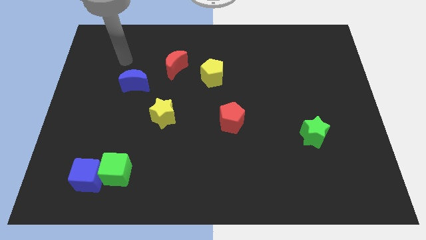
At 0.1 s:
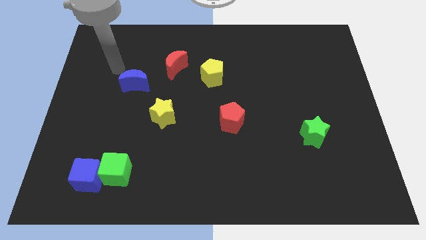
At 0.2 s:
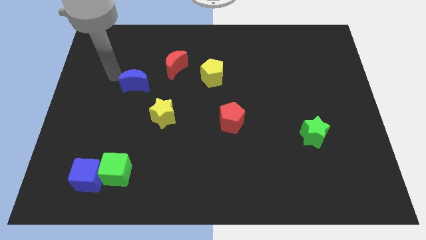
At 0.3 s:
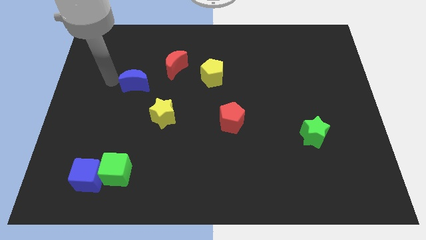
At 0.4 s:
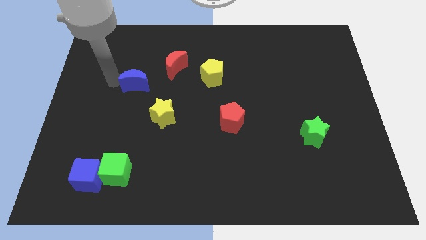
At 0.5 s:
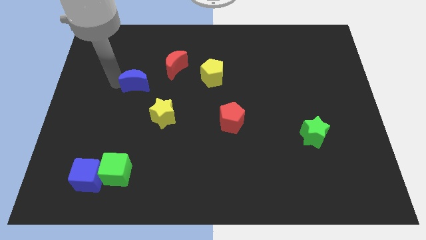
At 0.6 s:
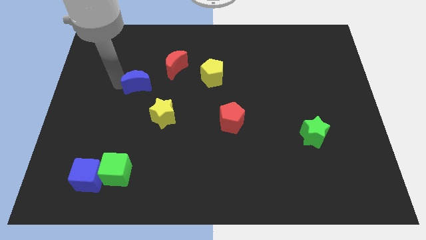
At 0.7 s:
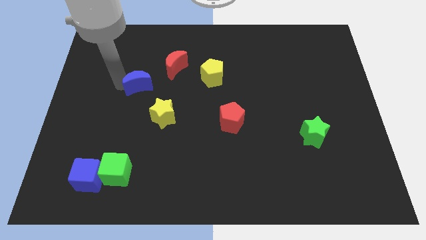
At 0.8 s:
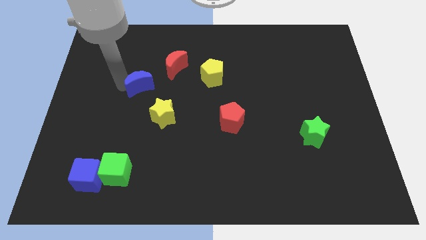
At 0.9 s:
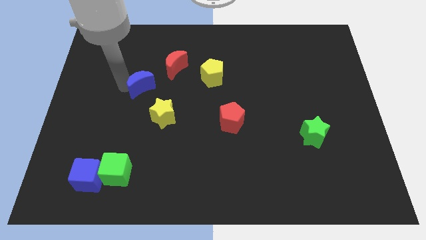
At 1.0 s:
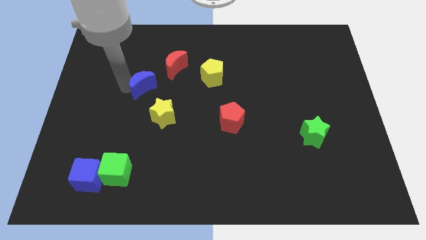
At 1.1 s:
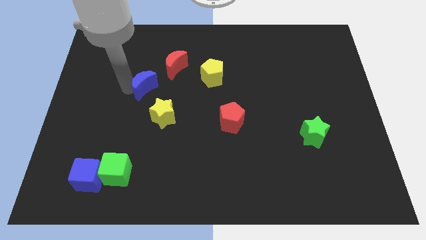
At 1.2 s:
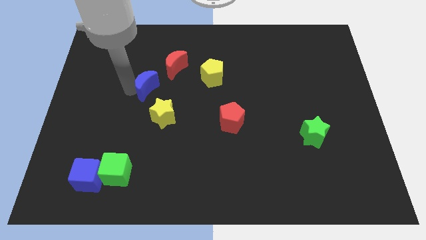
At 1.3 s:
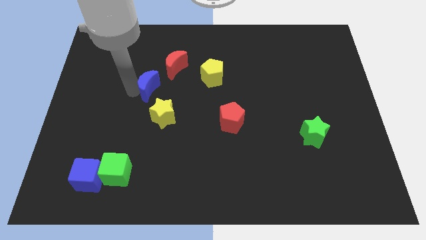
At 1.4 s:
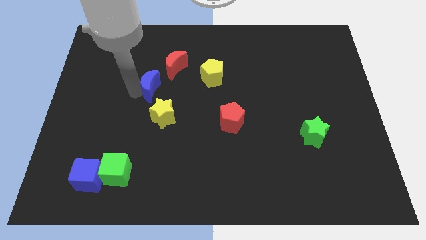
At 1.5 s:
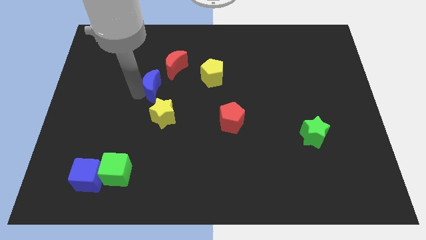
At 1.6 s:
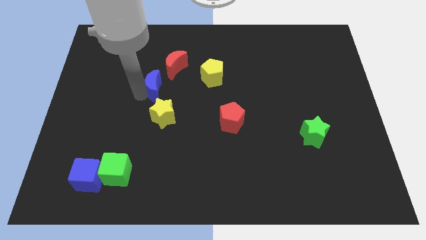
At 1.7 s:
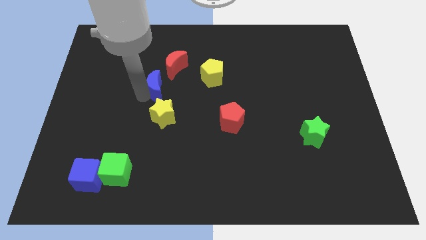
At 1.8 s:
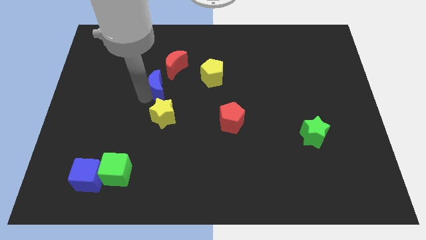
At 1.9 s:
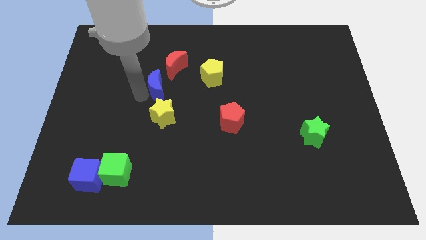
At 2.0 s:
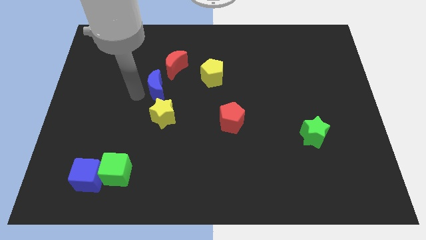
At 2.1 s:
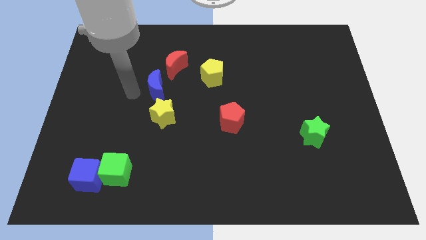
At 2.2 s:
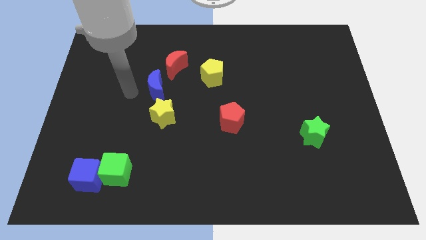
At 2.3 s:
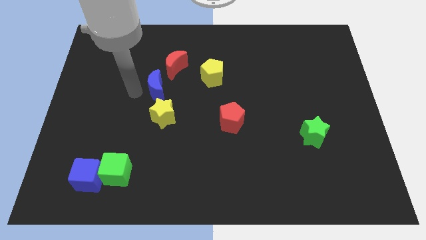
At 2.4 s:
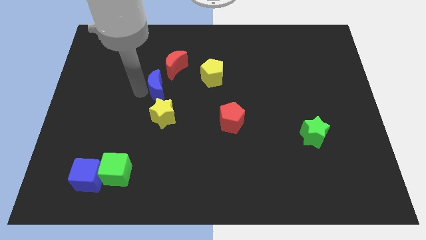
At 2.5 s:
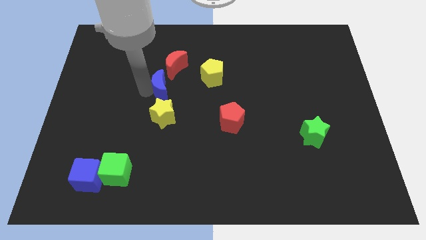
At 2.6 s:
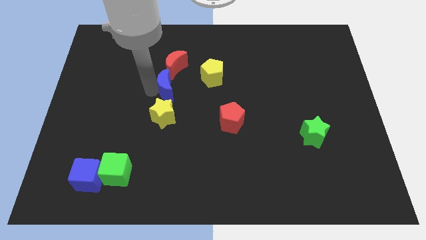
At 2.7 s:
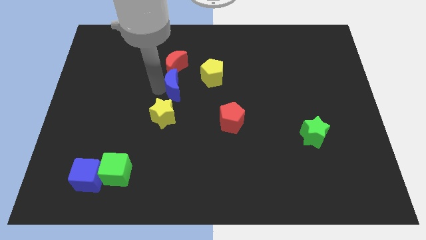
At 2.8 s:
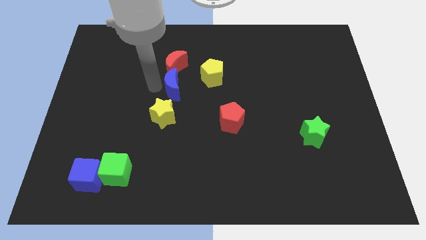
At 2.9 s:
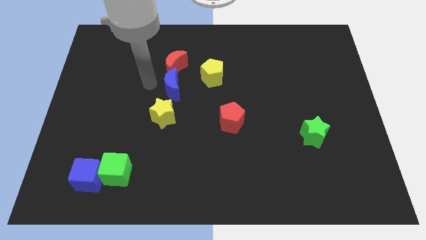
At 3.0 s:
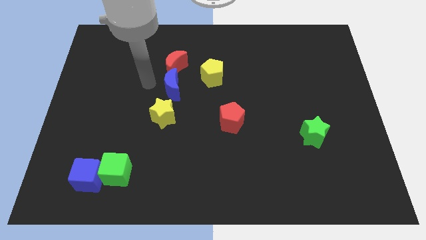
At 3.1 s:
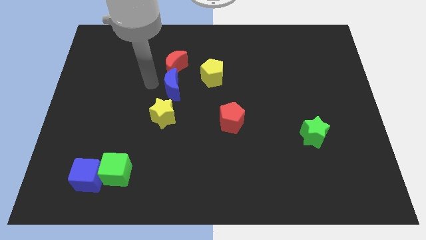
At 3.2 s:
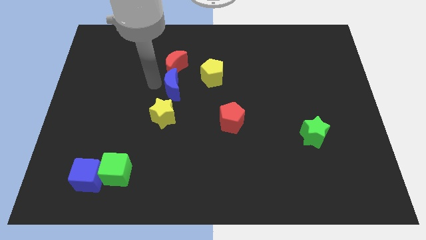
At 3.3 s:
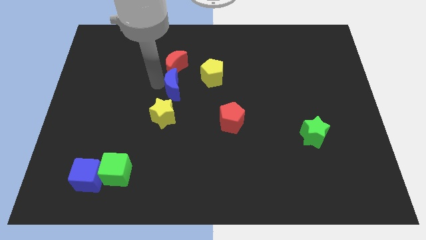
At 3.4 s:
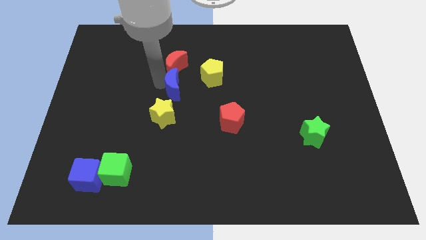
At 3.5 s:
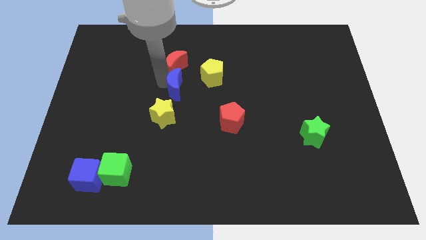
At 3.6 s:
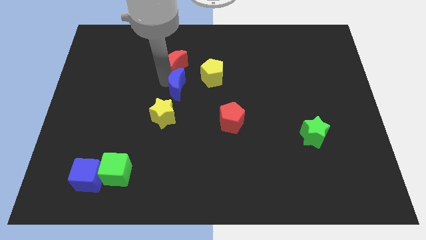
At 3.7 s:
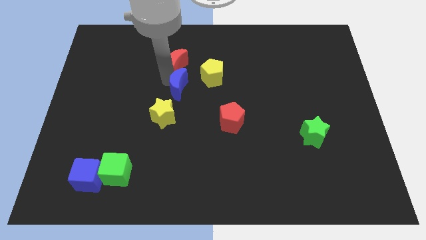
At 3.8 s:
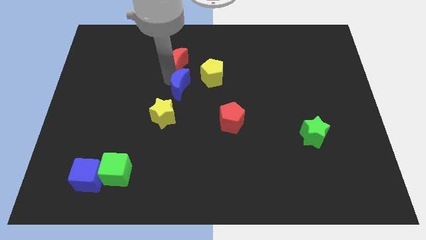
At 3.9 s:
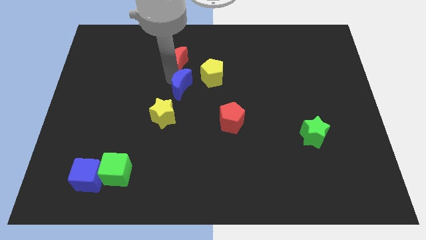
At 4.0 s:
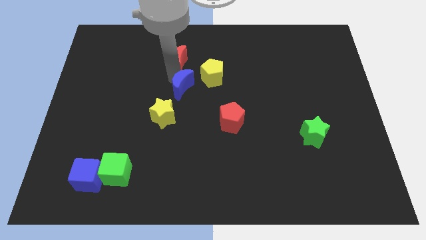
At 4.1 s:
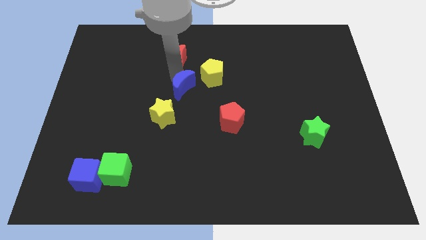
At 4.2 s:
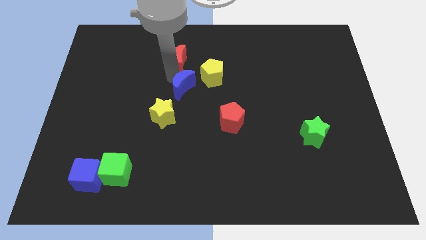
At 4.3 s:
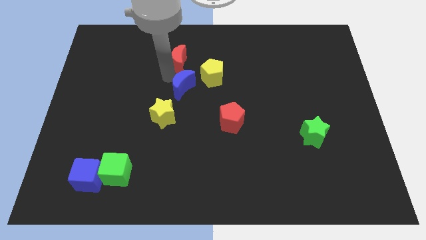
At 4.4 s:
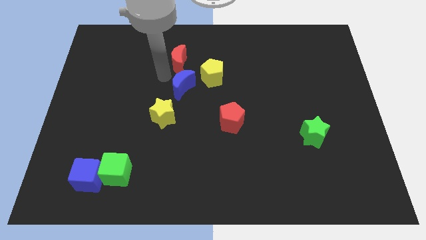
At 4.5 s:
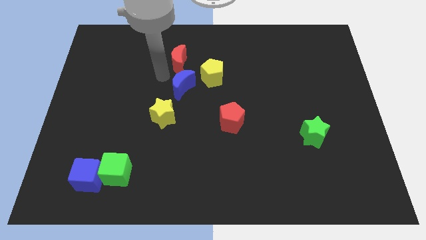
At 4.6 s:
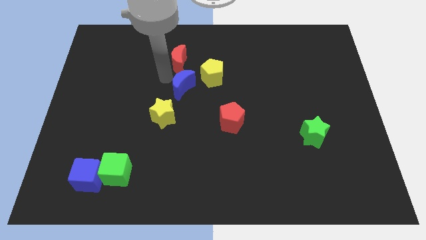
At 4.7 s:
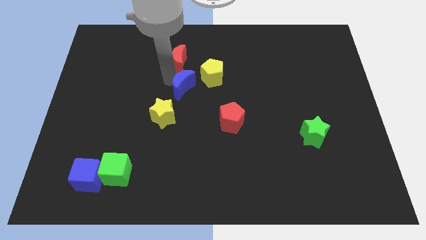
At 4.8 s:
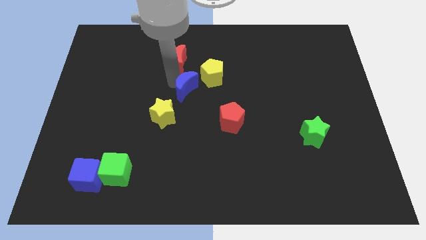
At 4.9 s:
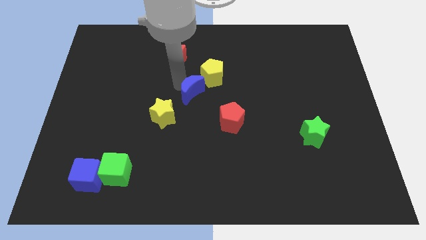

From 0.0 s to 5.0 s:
put the blue moon diagonally up and to the left of the red pentagon

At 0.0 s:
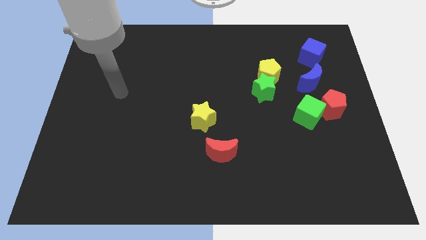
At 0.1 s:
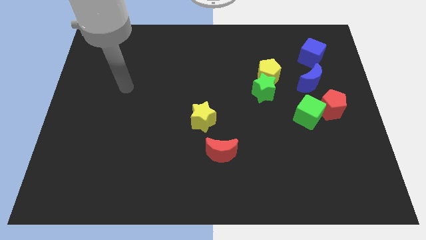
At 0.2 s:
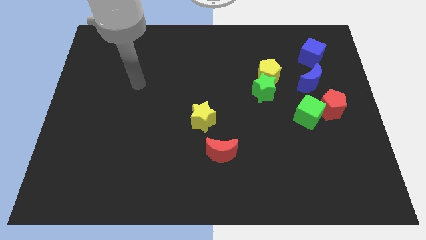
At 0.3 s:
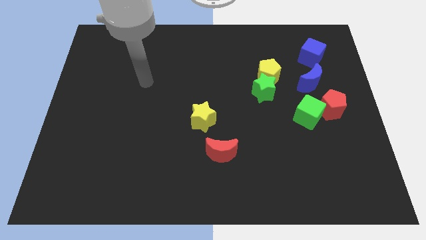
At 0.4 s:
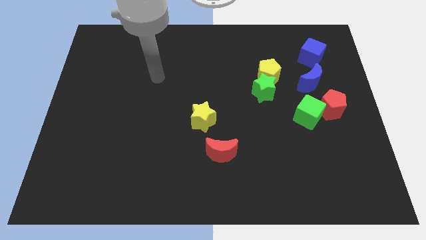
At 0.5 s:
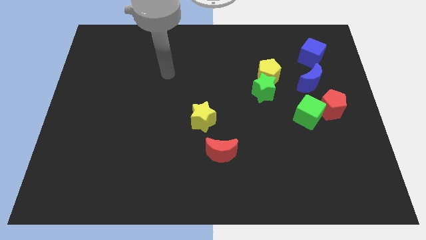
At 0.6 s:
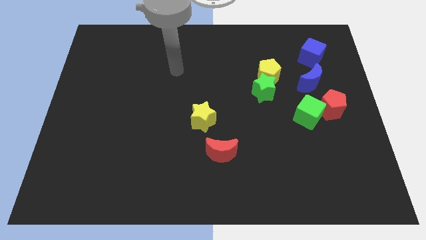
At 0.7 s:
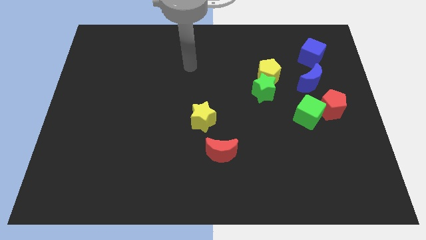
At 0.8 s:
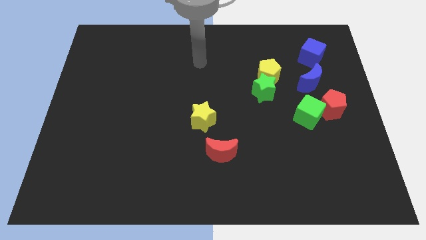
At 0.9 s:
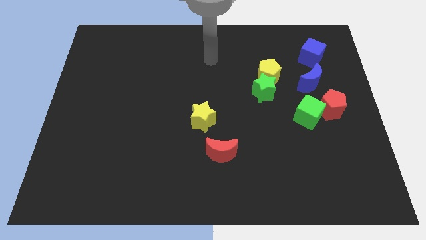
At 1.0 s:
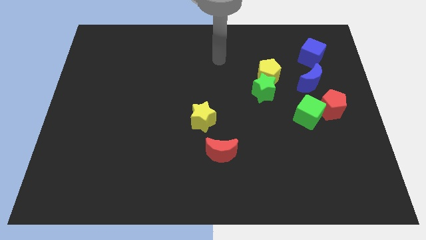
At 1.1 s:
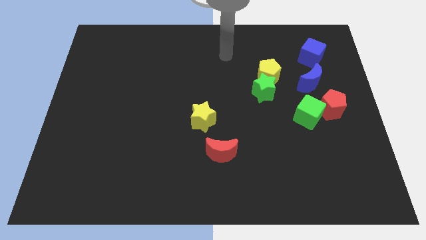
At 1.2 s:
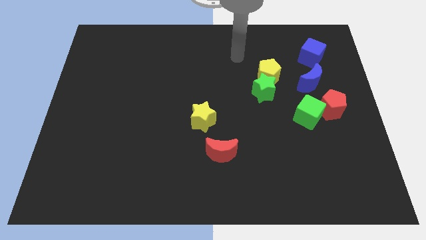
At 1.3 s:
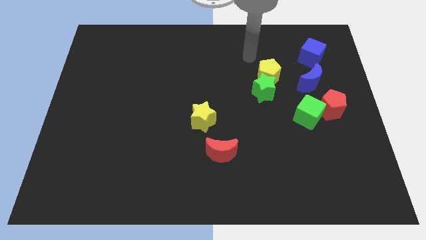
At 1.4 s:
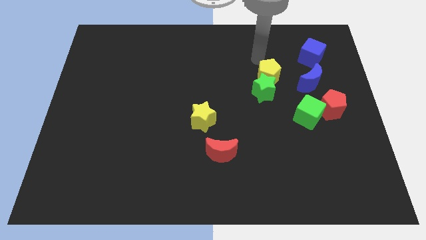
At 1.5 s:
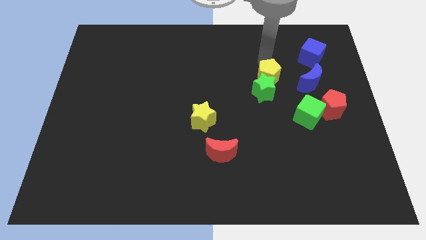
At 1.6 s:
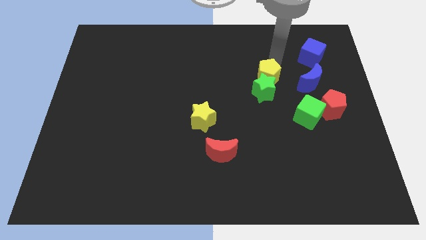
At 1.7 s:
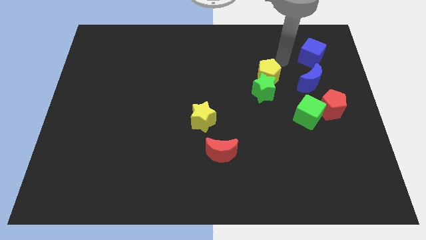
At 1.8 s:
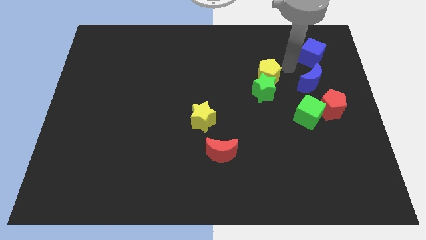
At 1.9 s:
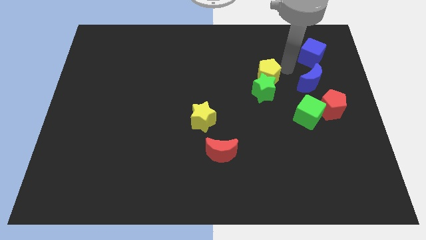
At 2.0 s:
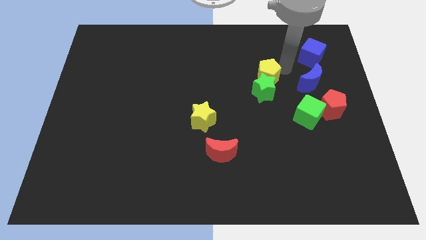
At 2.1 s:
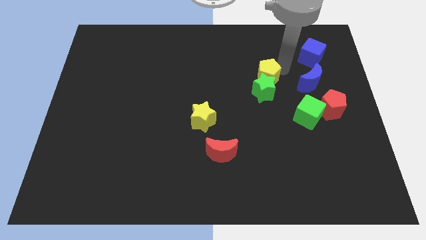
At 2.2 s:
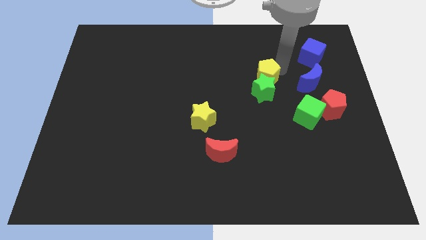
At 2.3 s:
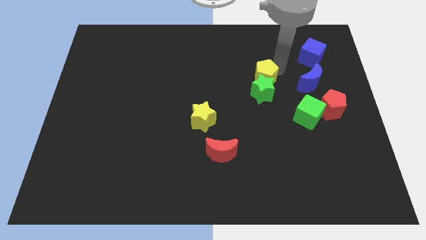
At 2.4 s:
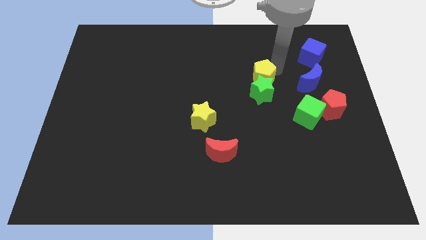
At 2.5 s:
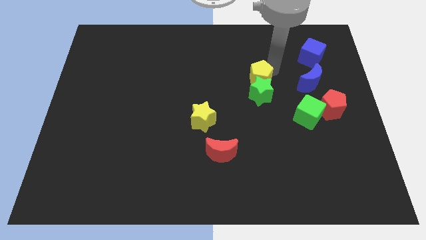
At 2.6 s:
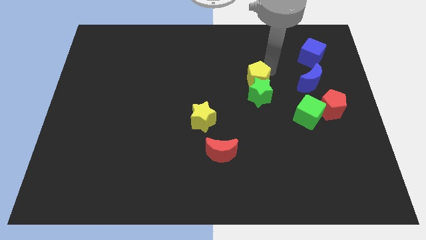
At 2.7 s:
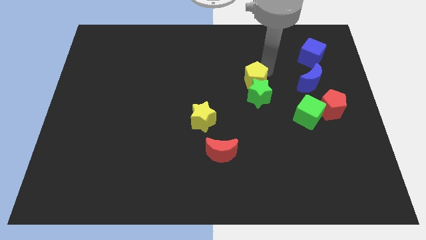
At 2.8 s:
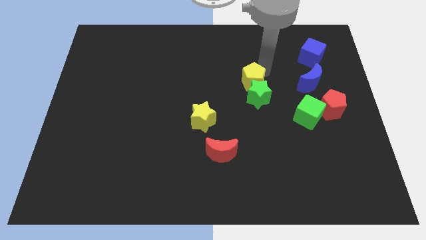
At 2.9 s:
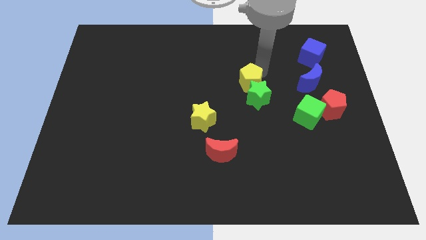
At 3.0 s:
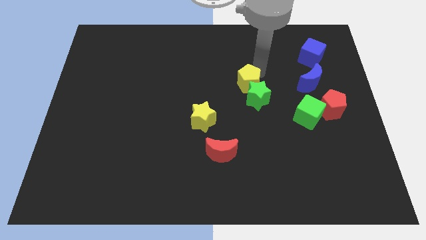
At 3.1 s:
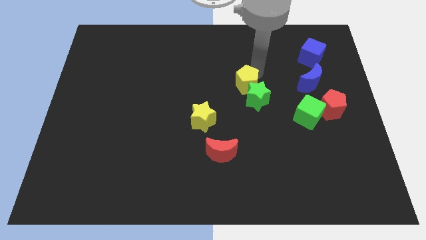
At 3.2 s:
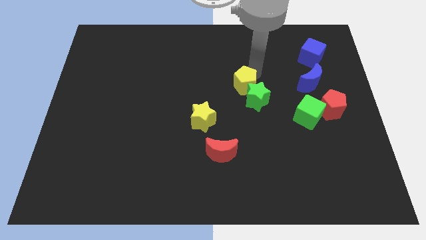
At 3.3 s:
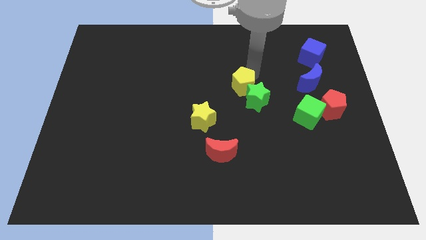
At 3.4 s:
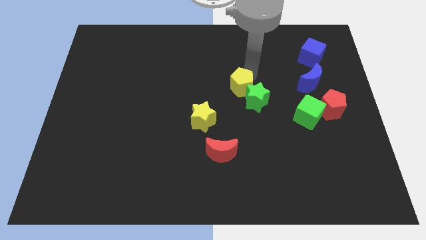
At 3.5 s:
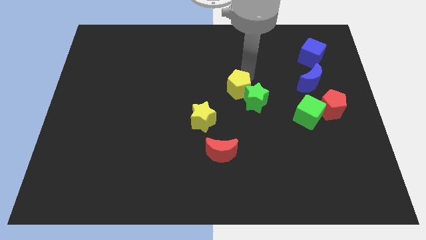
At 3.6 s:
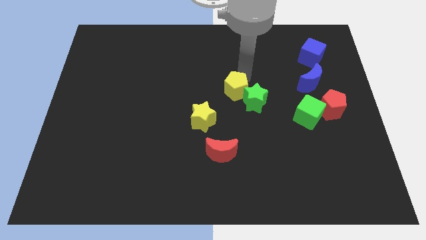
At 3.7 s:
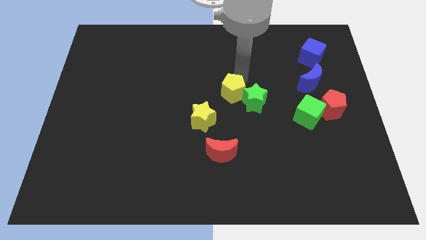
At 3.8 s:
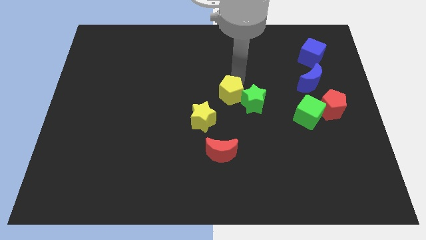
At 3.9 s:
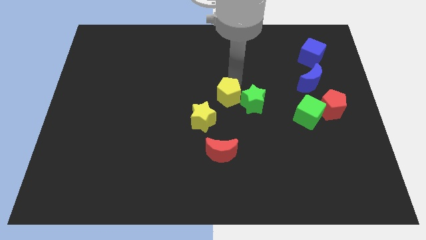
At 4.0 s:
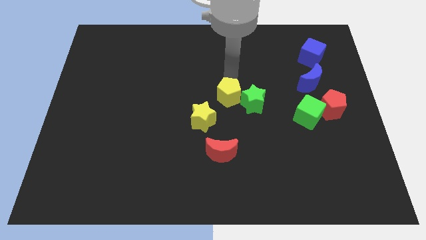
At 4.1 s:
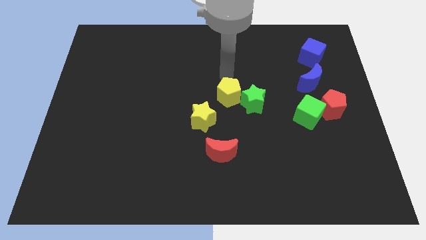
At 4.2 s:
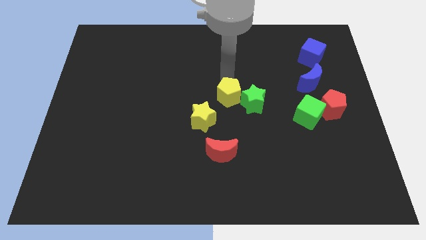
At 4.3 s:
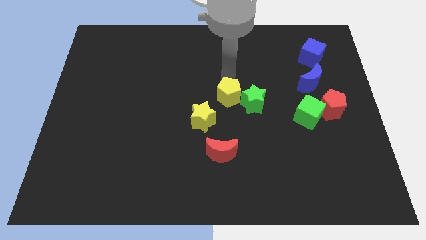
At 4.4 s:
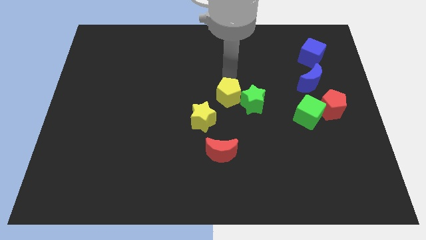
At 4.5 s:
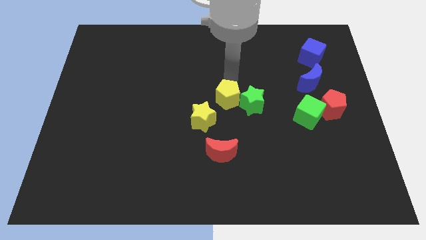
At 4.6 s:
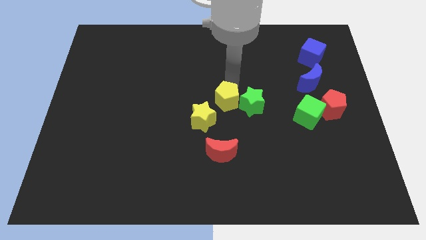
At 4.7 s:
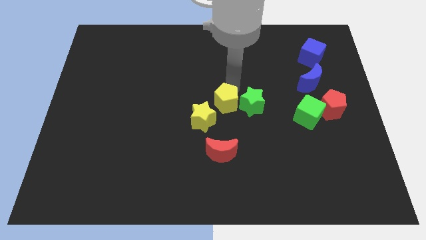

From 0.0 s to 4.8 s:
move the yellow pentagon to the bottom left of the green star
